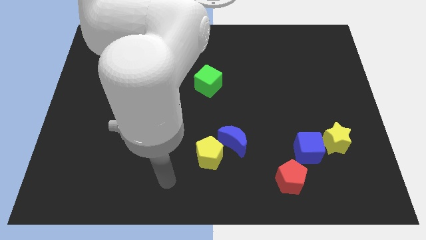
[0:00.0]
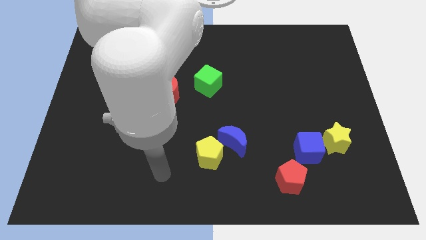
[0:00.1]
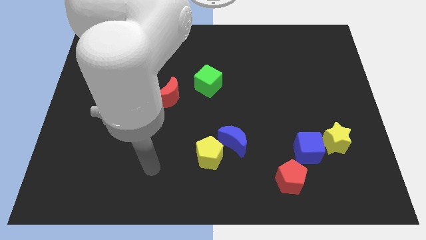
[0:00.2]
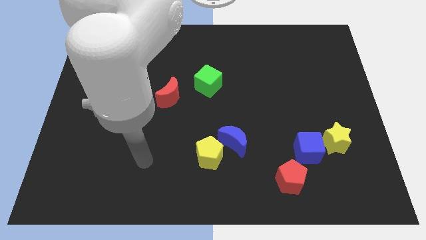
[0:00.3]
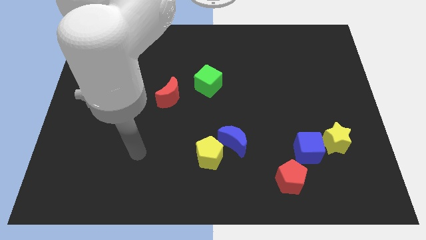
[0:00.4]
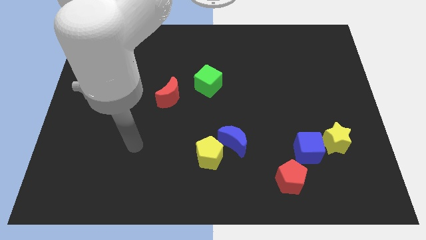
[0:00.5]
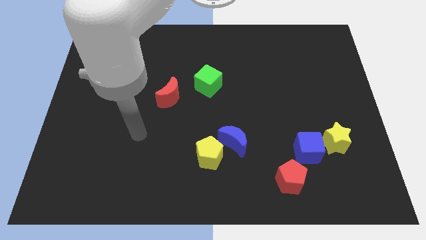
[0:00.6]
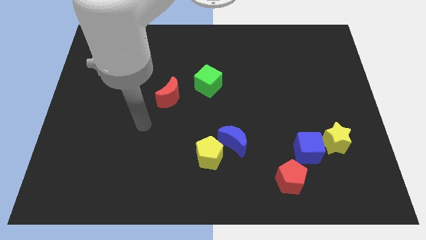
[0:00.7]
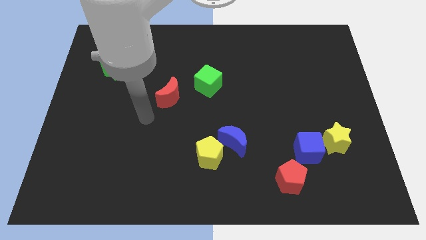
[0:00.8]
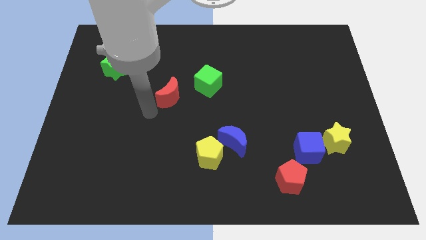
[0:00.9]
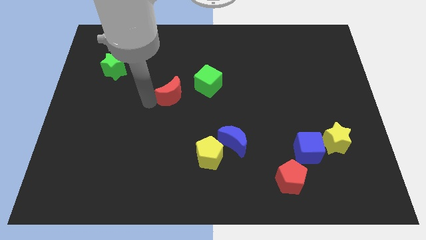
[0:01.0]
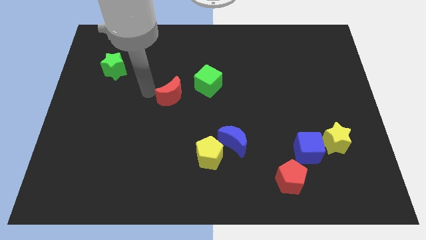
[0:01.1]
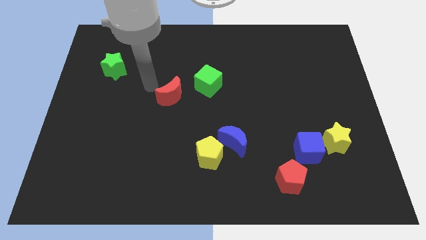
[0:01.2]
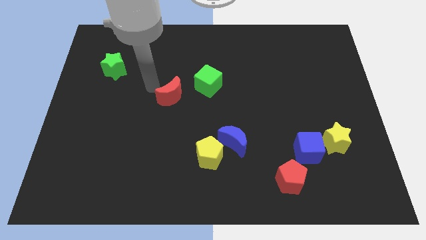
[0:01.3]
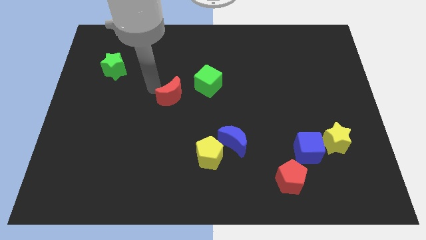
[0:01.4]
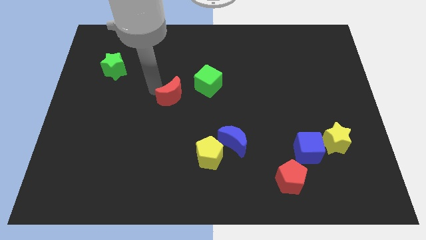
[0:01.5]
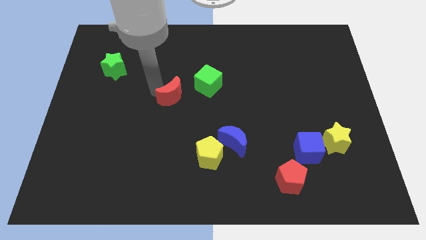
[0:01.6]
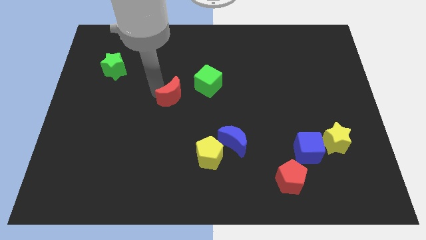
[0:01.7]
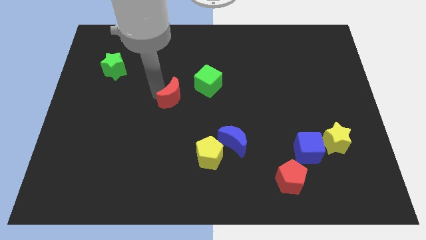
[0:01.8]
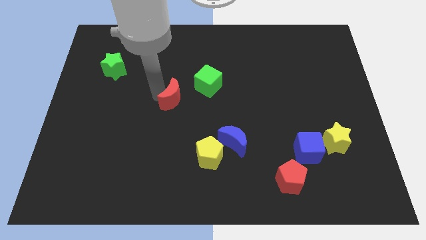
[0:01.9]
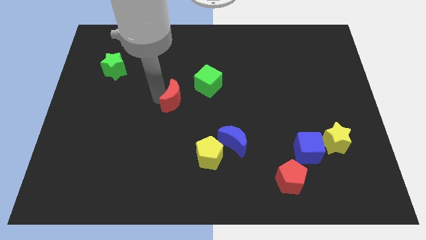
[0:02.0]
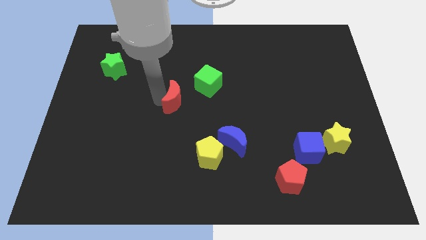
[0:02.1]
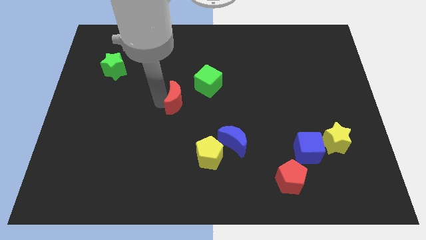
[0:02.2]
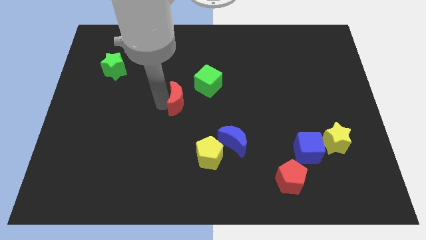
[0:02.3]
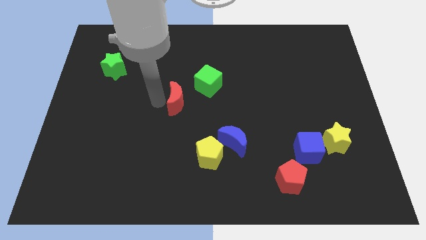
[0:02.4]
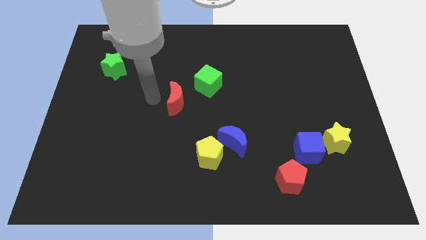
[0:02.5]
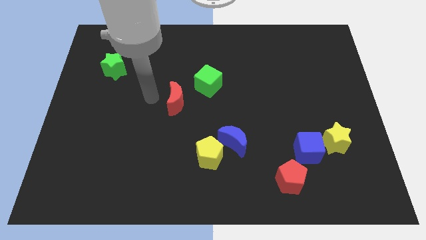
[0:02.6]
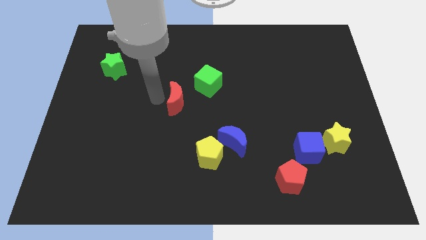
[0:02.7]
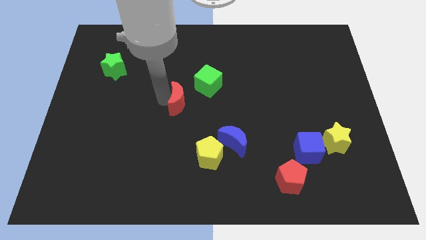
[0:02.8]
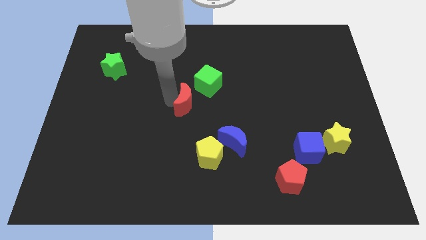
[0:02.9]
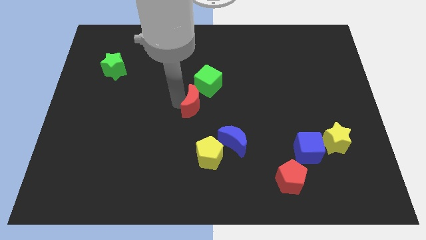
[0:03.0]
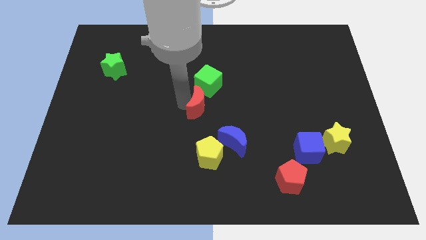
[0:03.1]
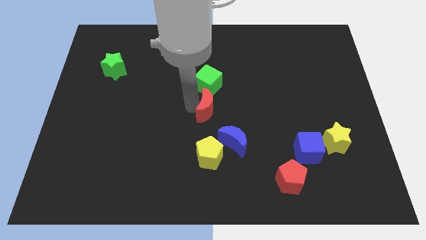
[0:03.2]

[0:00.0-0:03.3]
push the red moon to the right a little

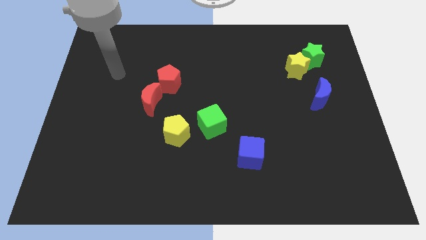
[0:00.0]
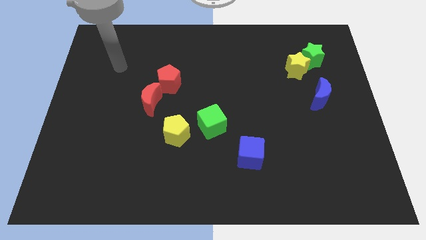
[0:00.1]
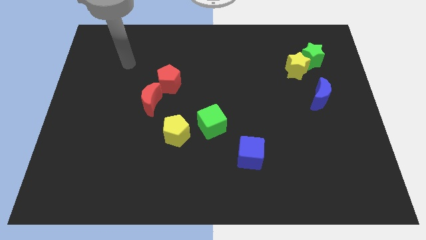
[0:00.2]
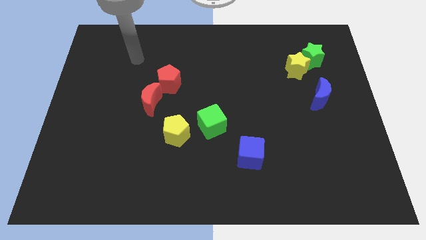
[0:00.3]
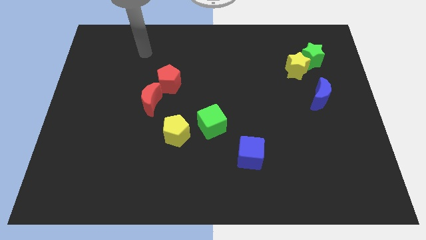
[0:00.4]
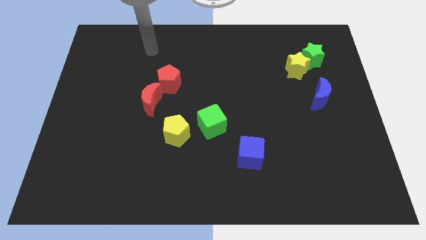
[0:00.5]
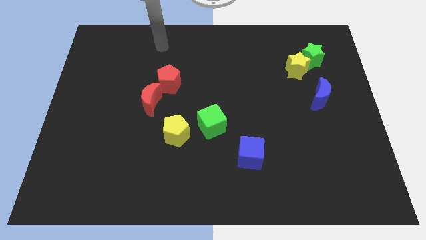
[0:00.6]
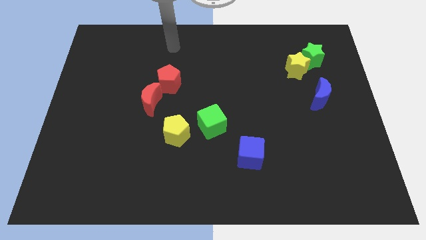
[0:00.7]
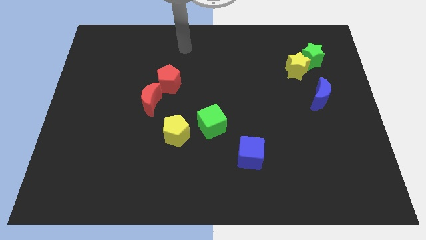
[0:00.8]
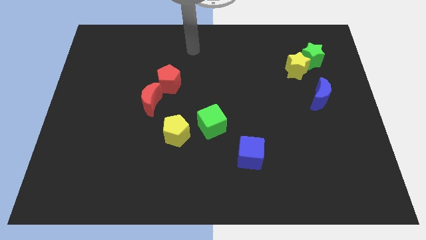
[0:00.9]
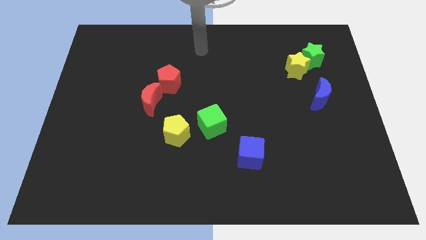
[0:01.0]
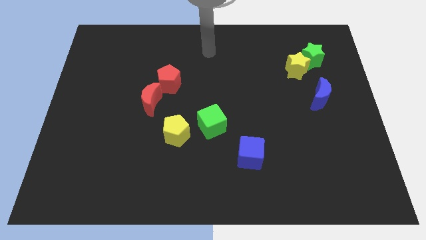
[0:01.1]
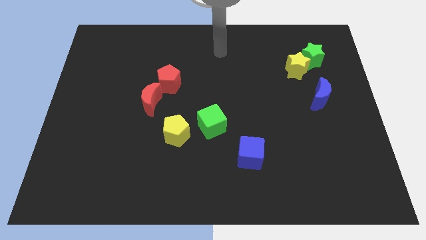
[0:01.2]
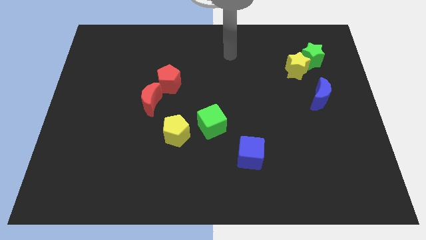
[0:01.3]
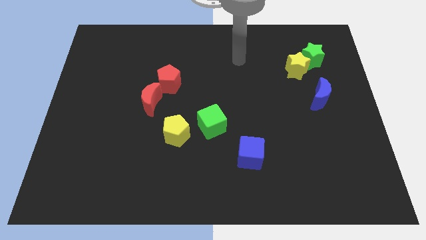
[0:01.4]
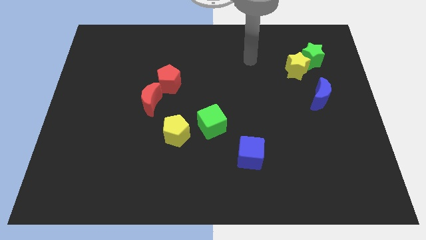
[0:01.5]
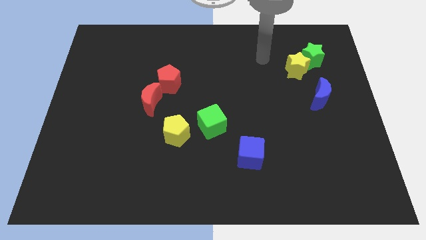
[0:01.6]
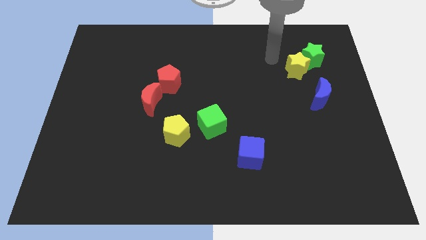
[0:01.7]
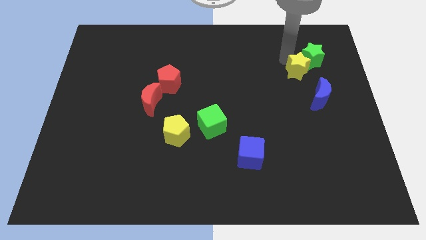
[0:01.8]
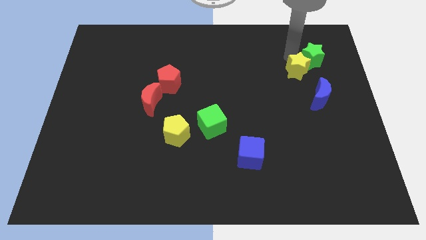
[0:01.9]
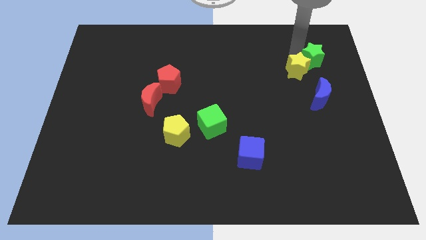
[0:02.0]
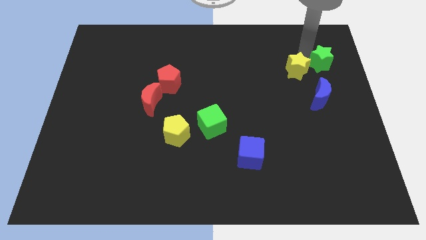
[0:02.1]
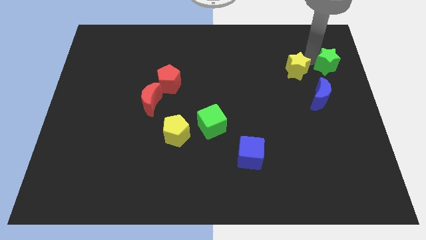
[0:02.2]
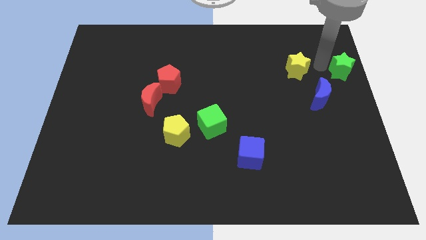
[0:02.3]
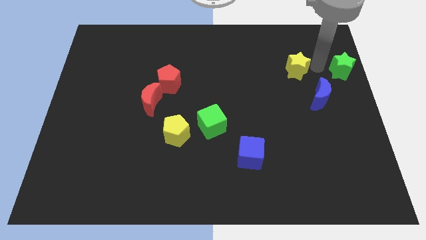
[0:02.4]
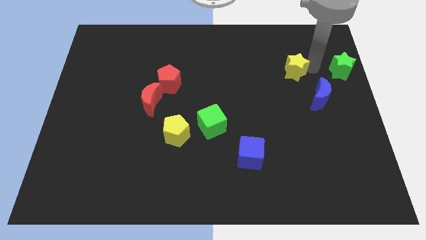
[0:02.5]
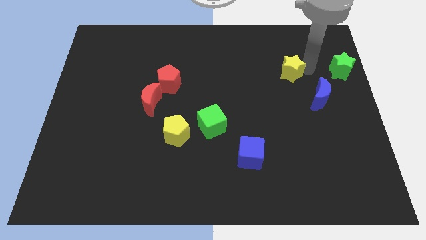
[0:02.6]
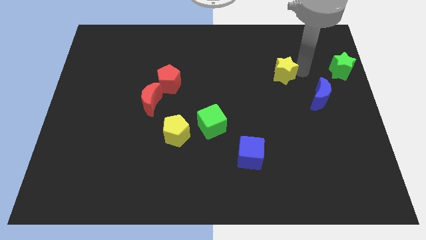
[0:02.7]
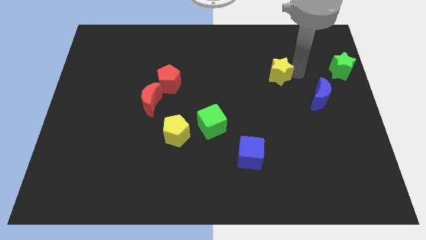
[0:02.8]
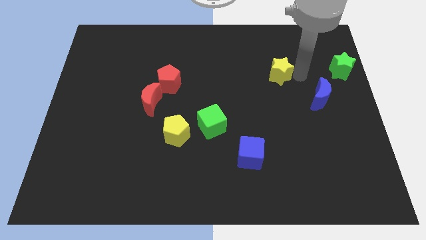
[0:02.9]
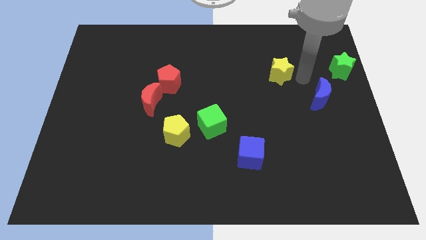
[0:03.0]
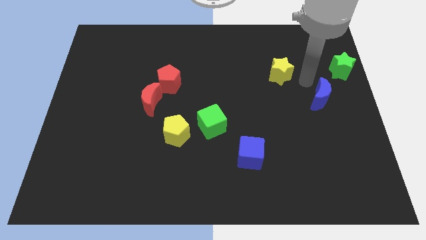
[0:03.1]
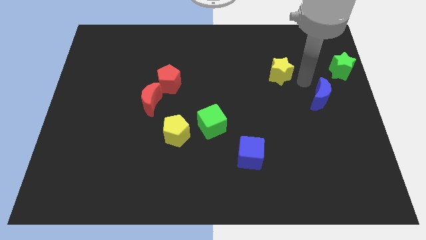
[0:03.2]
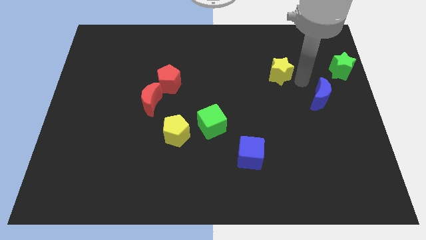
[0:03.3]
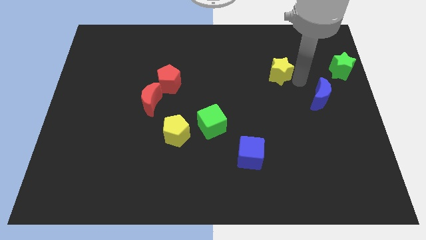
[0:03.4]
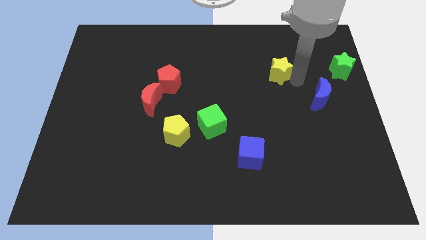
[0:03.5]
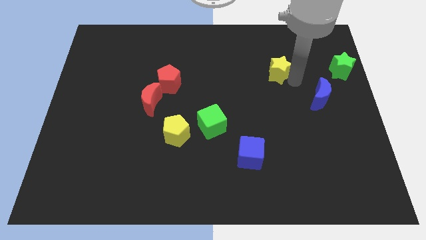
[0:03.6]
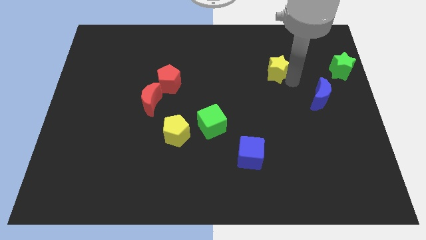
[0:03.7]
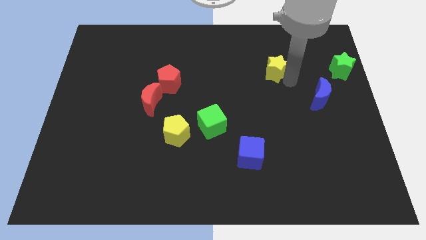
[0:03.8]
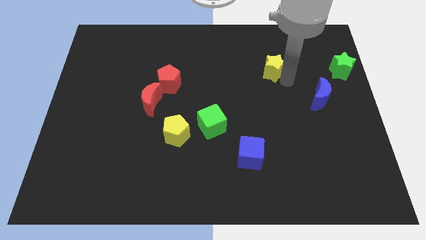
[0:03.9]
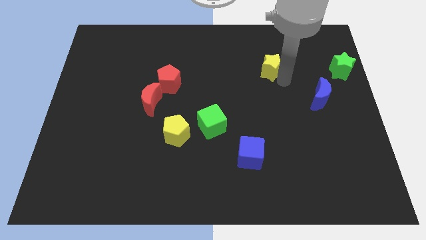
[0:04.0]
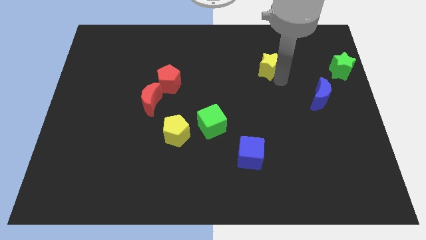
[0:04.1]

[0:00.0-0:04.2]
slide the yellow star slightly to the left

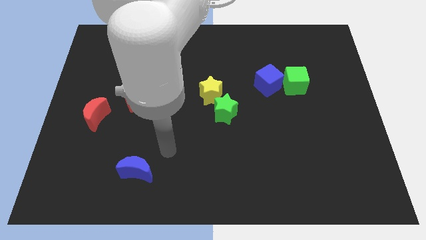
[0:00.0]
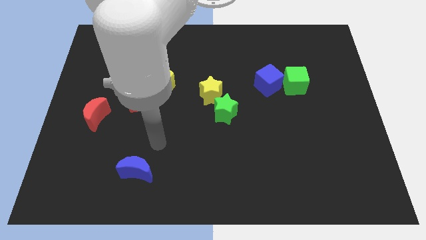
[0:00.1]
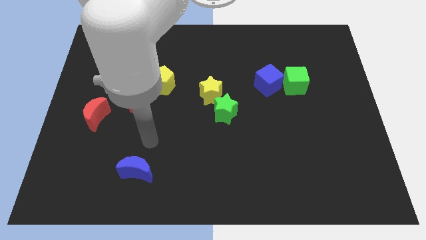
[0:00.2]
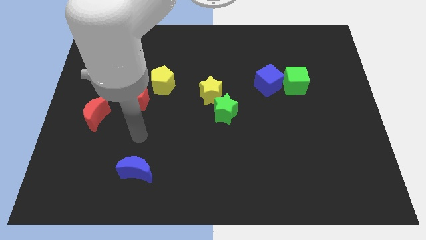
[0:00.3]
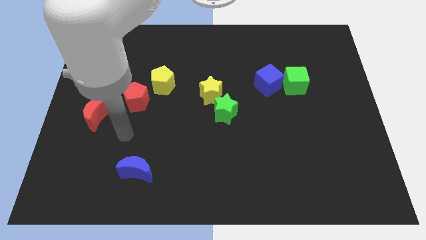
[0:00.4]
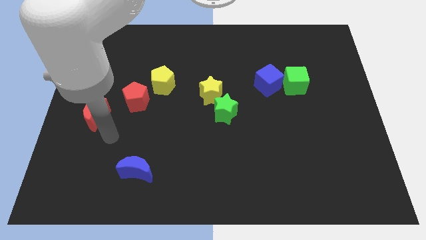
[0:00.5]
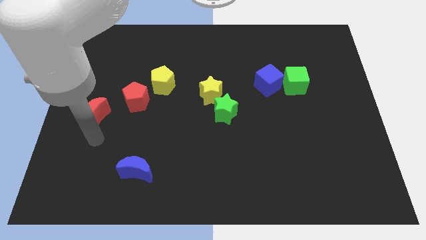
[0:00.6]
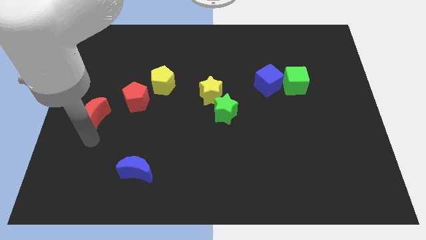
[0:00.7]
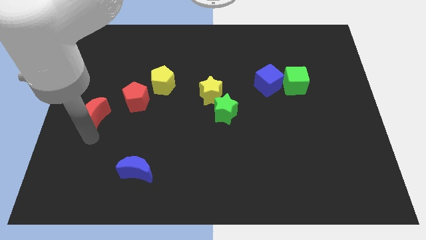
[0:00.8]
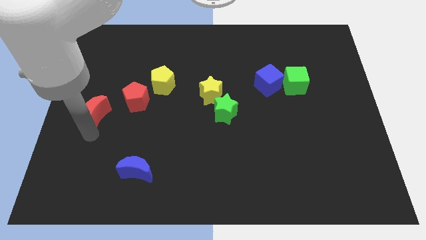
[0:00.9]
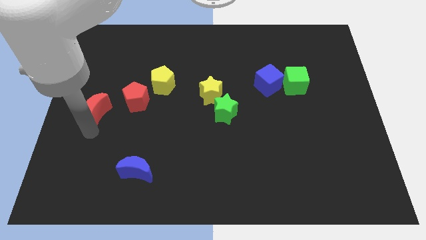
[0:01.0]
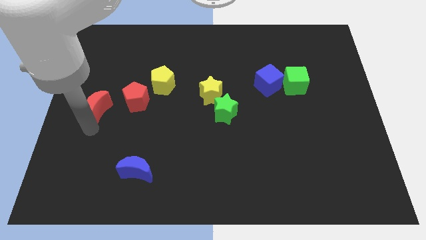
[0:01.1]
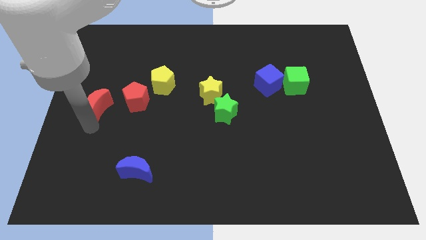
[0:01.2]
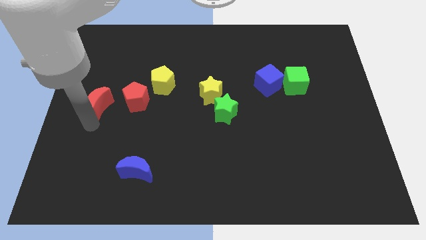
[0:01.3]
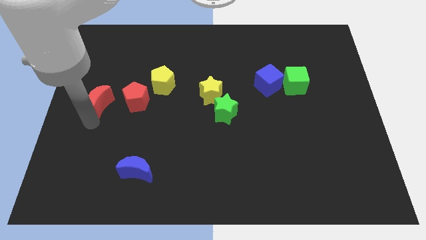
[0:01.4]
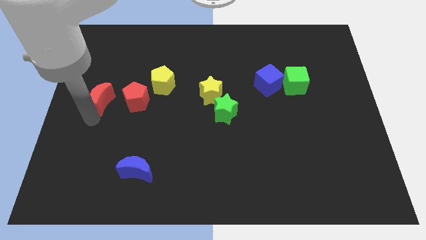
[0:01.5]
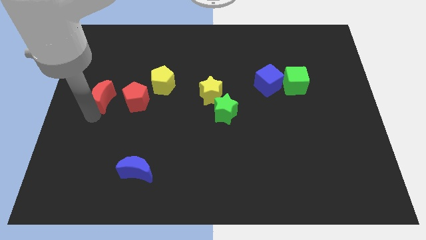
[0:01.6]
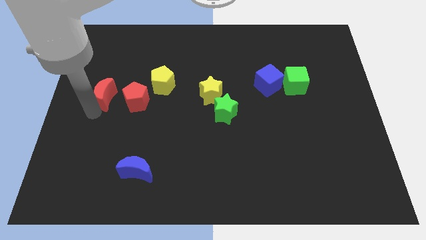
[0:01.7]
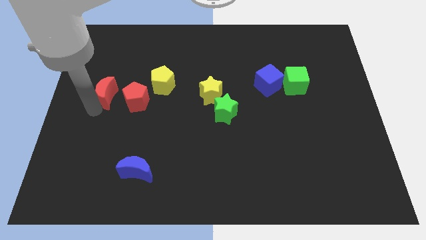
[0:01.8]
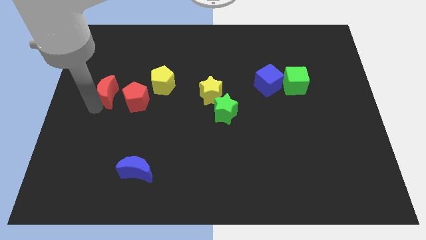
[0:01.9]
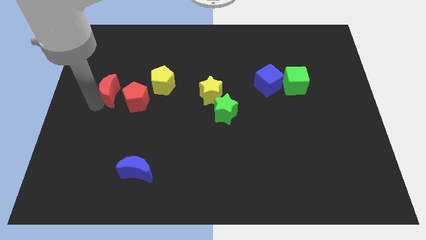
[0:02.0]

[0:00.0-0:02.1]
slightly slide the red moon up
